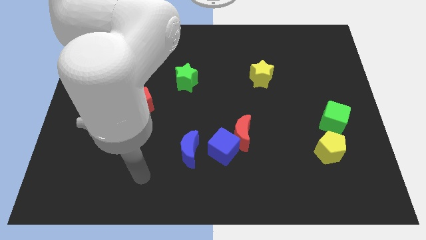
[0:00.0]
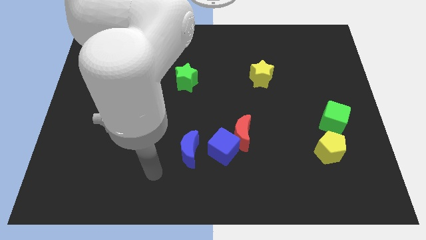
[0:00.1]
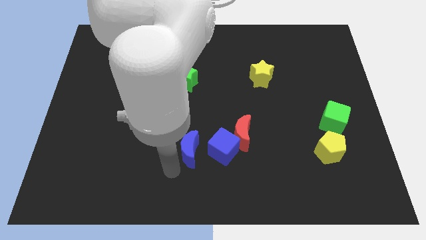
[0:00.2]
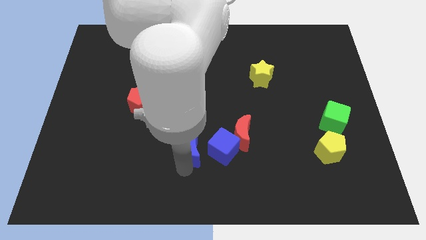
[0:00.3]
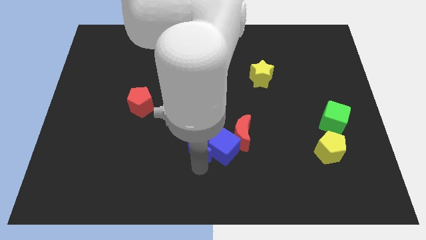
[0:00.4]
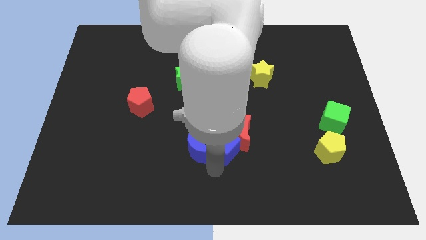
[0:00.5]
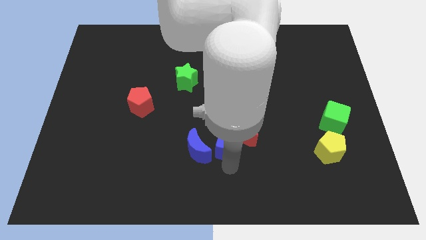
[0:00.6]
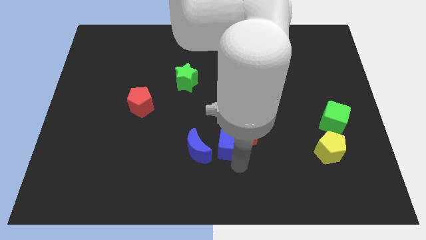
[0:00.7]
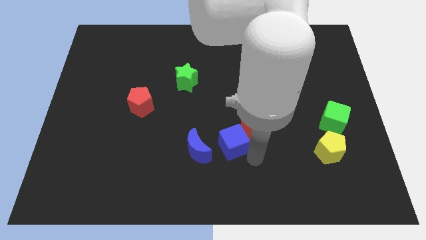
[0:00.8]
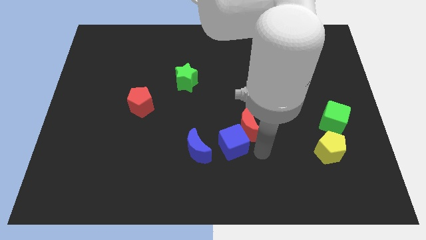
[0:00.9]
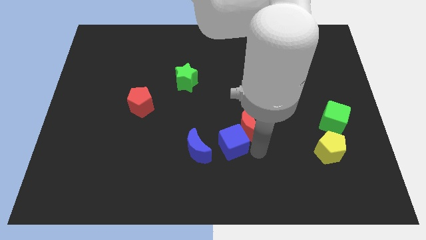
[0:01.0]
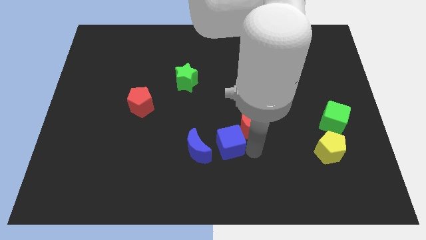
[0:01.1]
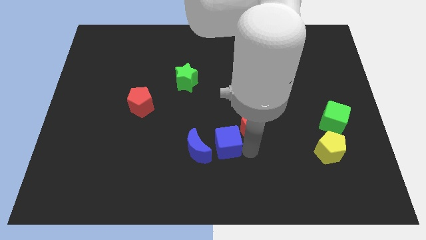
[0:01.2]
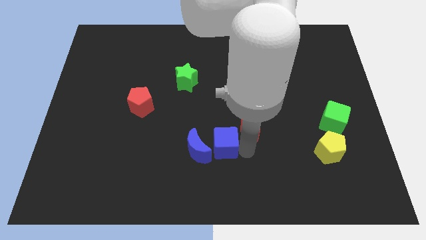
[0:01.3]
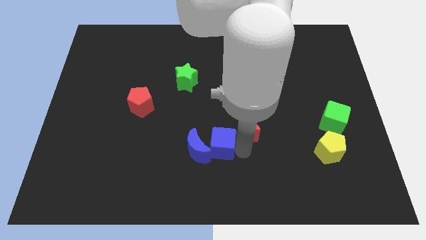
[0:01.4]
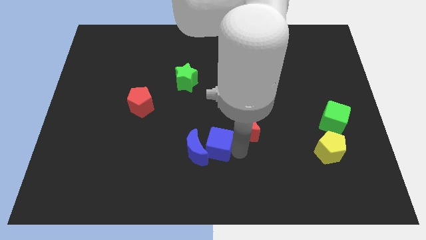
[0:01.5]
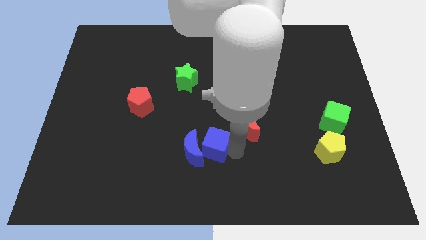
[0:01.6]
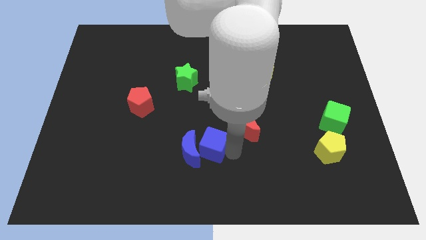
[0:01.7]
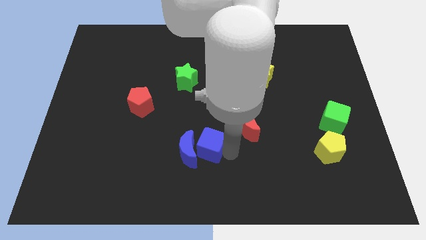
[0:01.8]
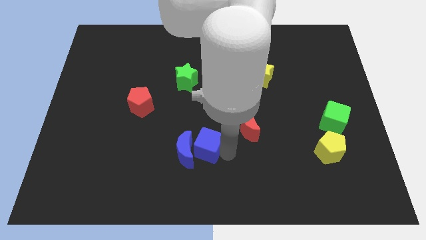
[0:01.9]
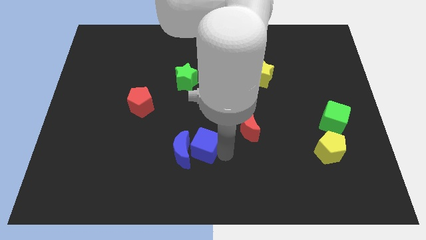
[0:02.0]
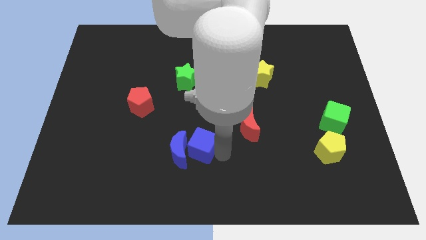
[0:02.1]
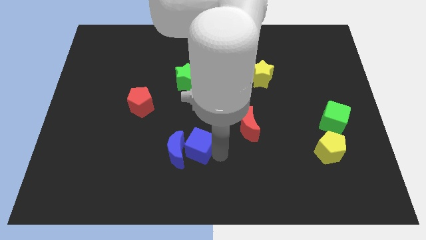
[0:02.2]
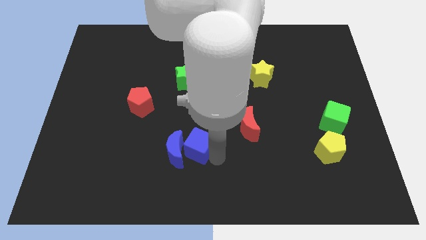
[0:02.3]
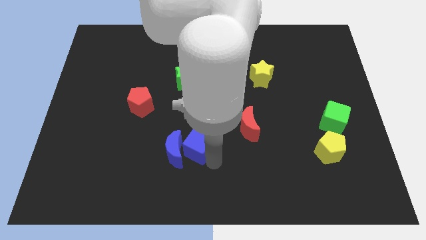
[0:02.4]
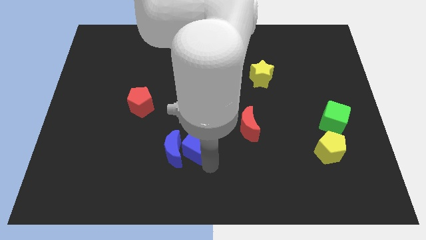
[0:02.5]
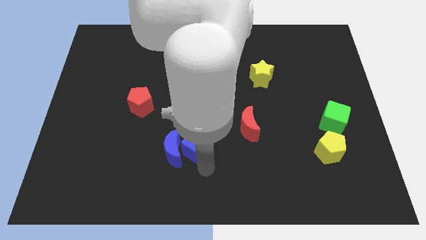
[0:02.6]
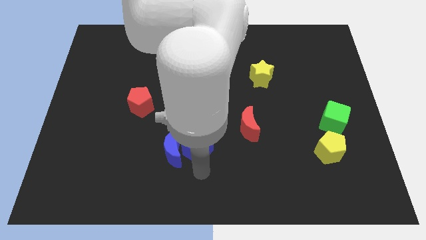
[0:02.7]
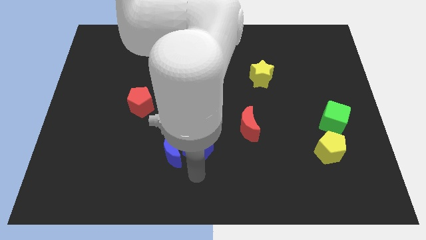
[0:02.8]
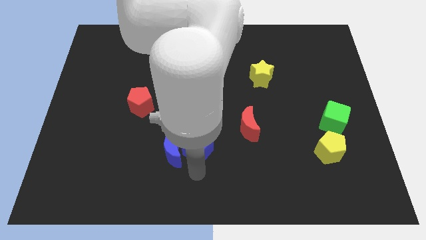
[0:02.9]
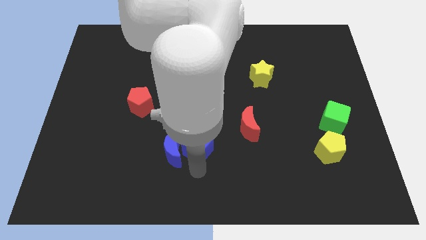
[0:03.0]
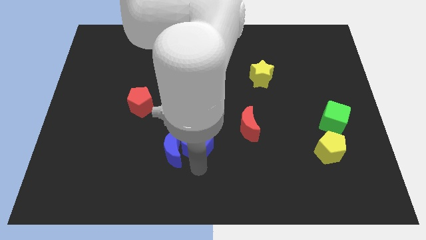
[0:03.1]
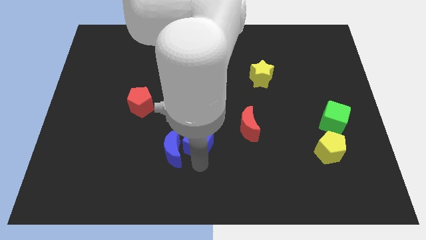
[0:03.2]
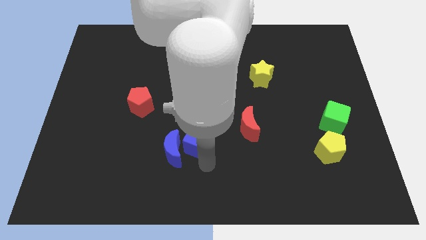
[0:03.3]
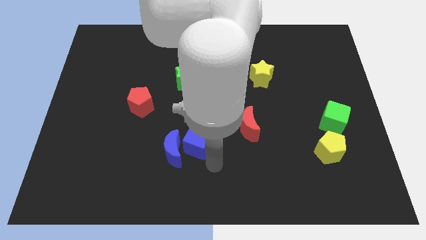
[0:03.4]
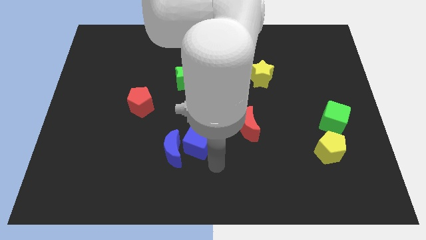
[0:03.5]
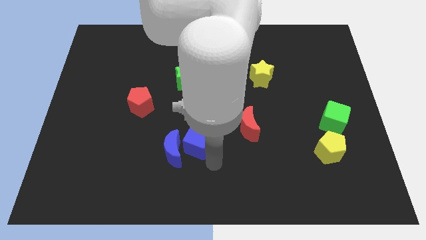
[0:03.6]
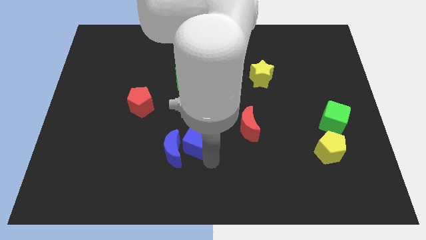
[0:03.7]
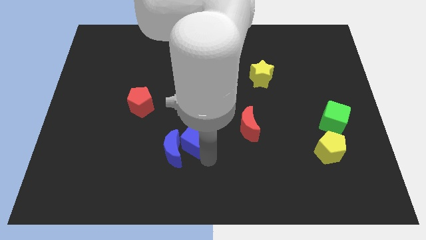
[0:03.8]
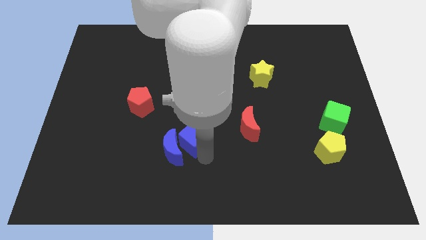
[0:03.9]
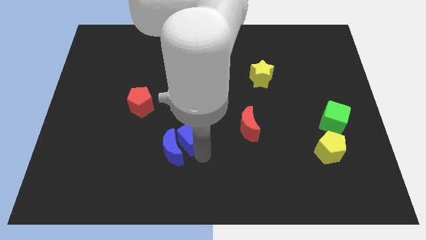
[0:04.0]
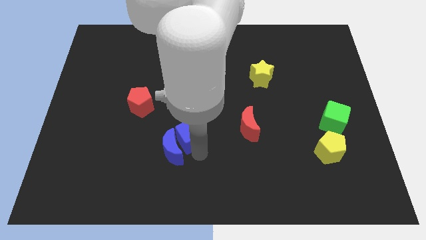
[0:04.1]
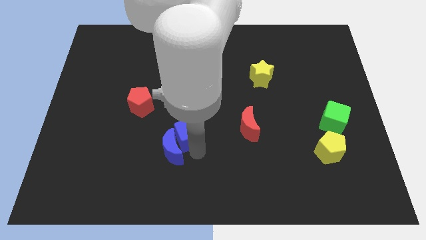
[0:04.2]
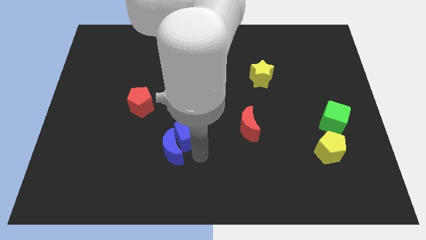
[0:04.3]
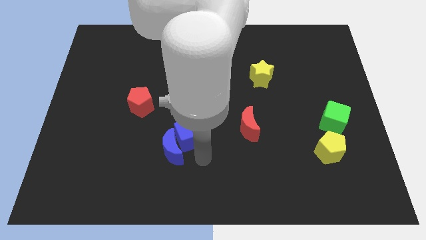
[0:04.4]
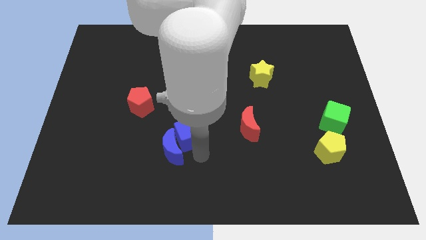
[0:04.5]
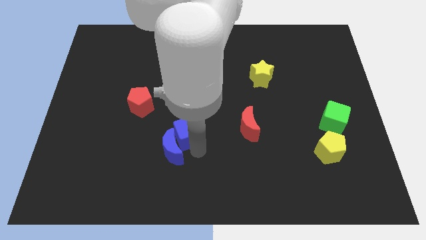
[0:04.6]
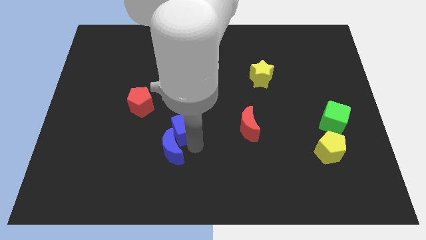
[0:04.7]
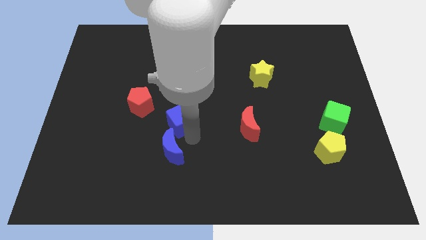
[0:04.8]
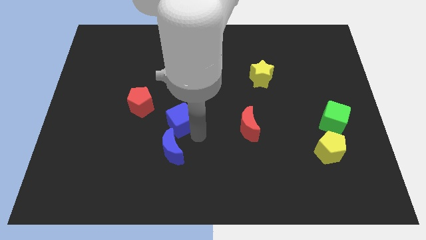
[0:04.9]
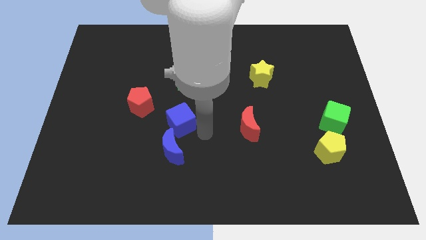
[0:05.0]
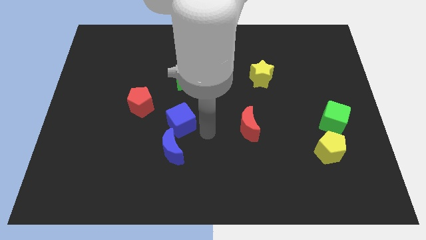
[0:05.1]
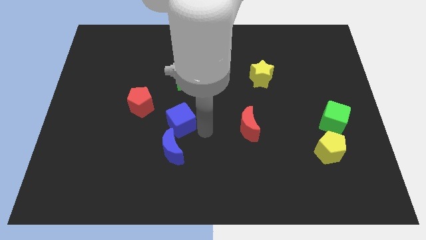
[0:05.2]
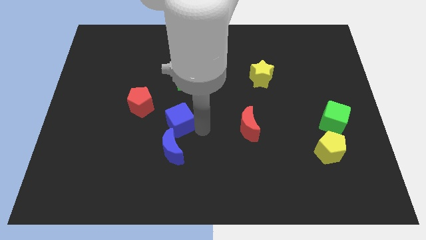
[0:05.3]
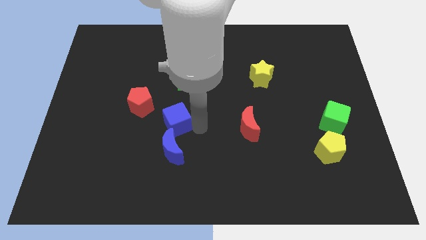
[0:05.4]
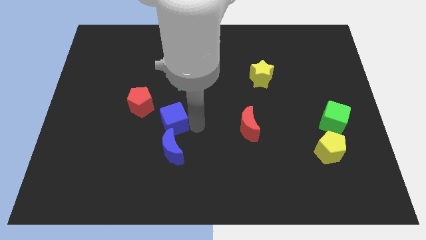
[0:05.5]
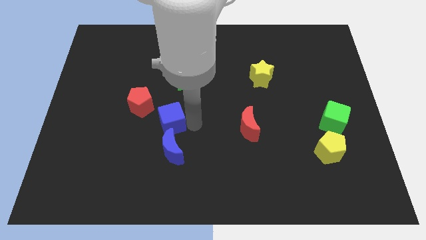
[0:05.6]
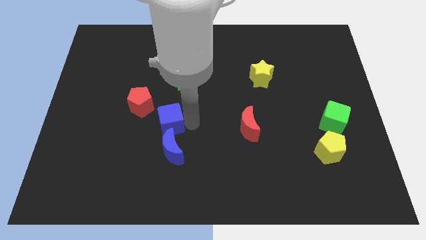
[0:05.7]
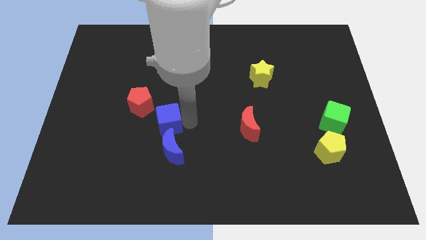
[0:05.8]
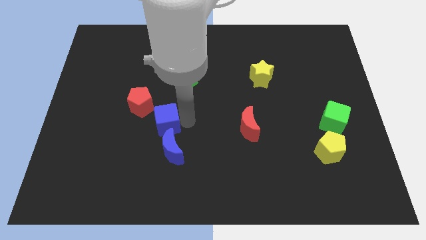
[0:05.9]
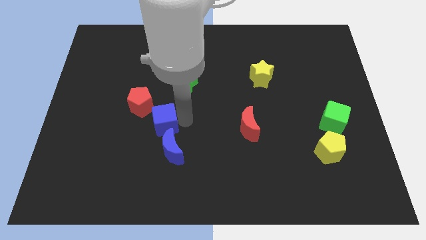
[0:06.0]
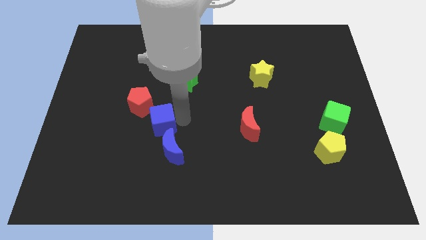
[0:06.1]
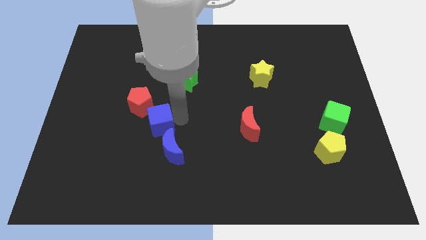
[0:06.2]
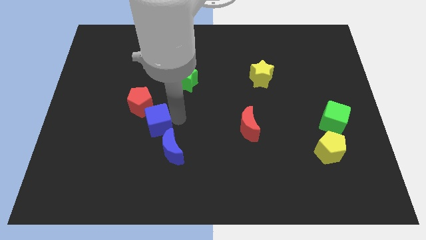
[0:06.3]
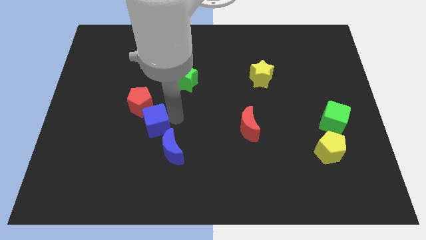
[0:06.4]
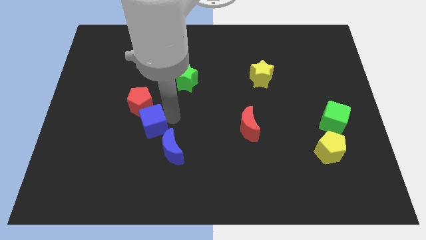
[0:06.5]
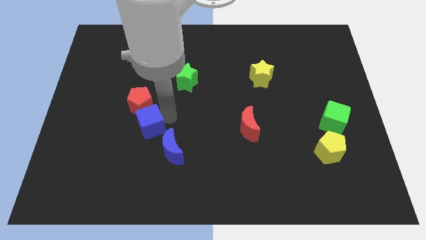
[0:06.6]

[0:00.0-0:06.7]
put the blue cube to the red pentagon

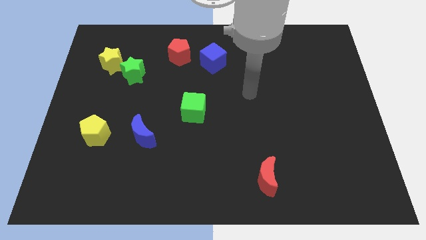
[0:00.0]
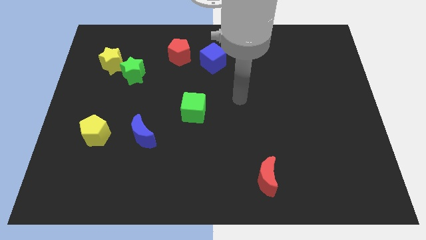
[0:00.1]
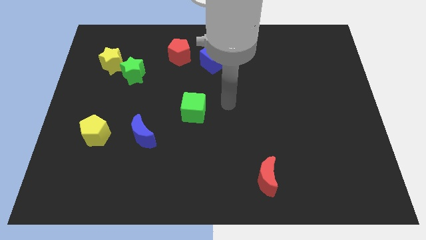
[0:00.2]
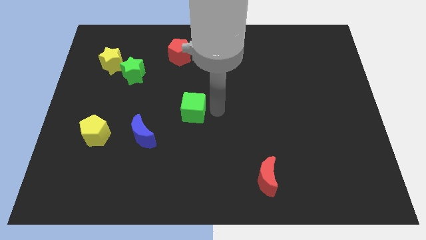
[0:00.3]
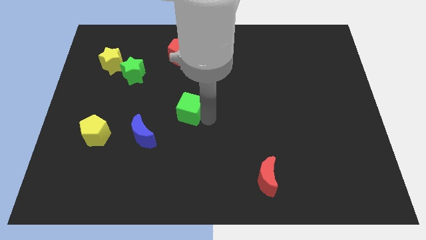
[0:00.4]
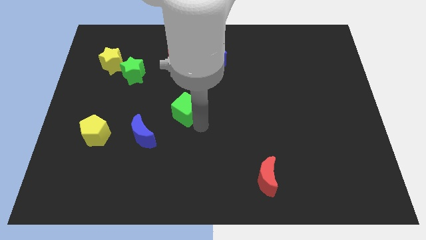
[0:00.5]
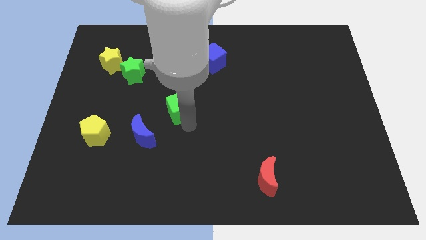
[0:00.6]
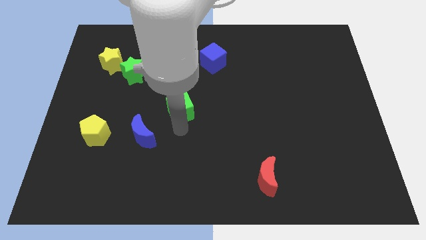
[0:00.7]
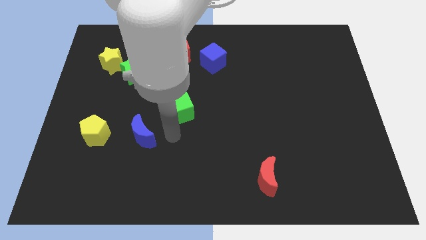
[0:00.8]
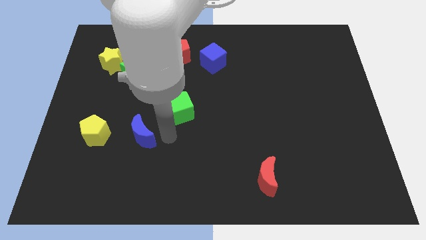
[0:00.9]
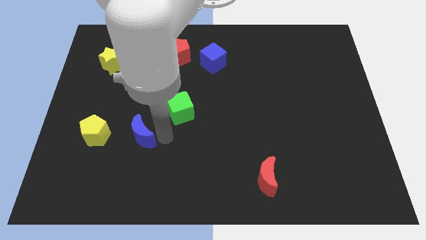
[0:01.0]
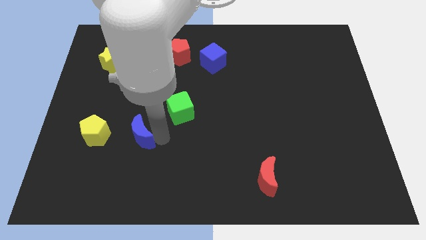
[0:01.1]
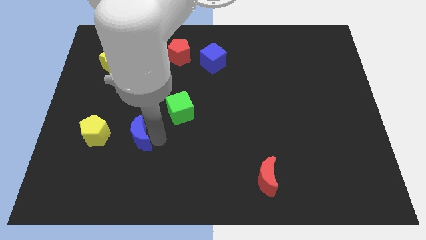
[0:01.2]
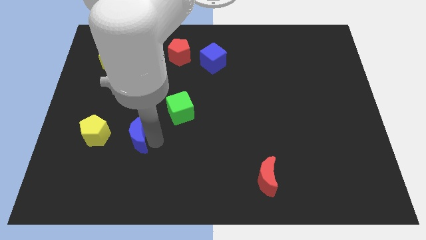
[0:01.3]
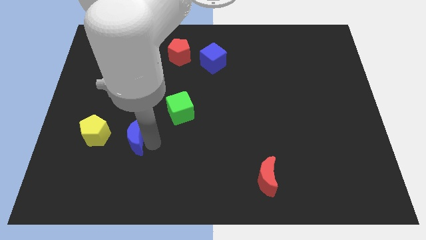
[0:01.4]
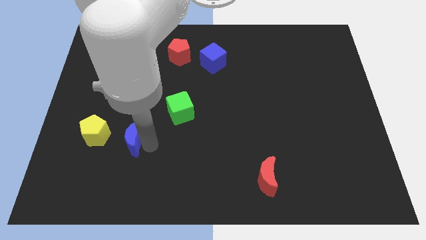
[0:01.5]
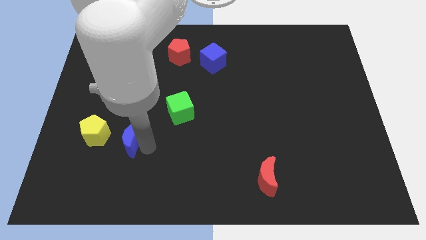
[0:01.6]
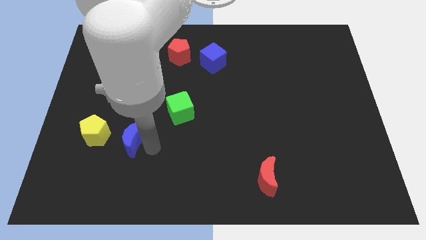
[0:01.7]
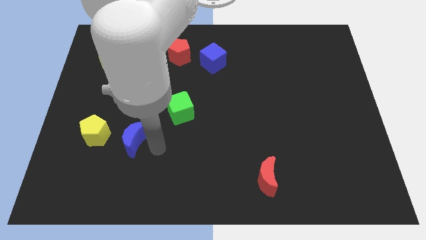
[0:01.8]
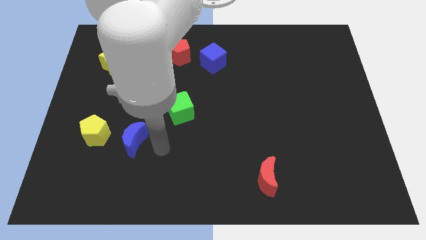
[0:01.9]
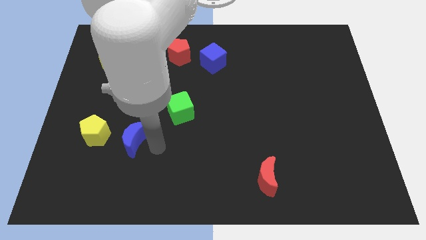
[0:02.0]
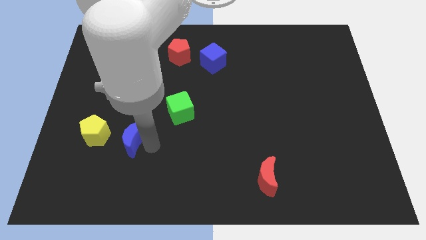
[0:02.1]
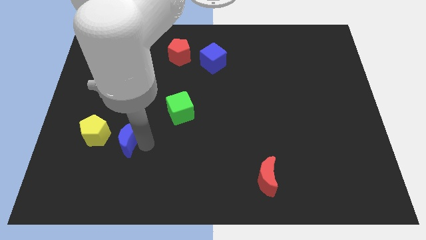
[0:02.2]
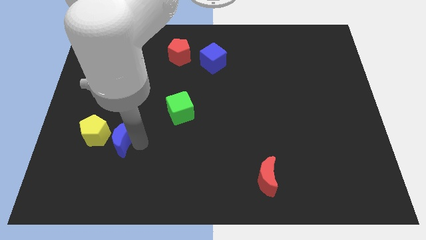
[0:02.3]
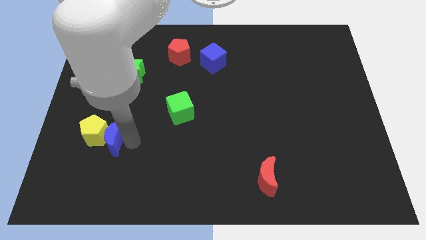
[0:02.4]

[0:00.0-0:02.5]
push the blue moon close to the yellow pentagon
